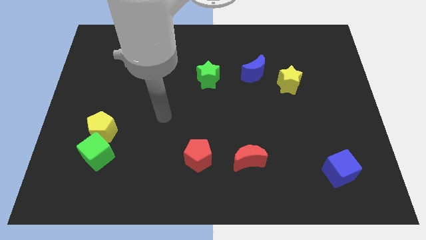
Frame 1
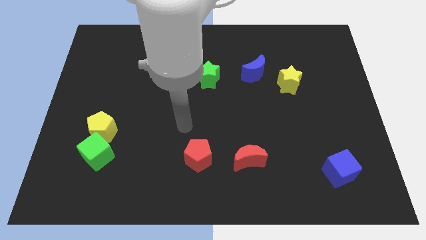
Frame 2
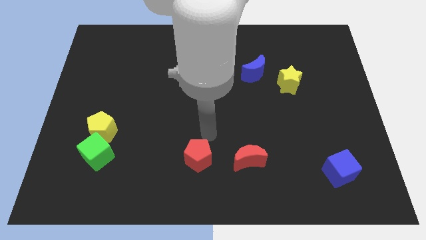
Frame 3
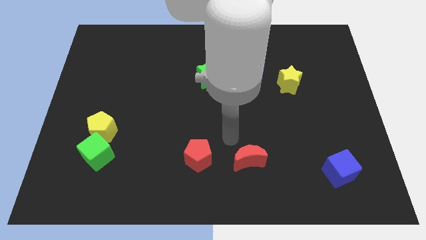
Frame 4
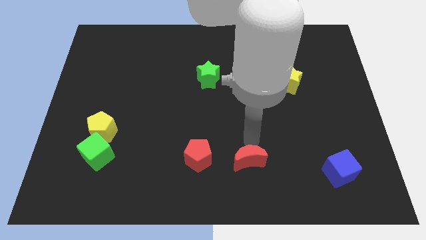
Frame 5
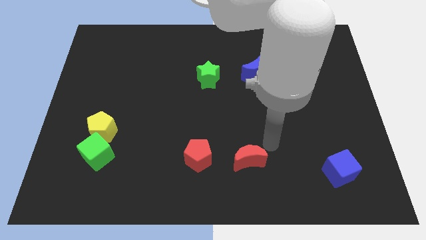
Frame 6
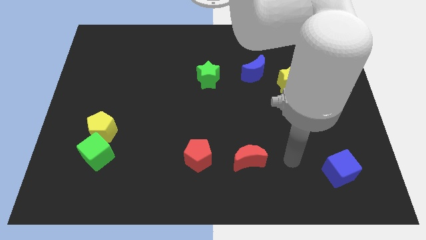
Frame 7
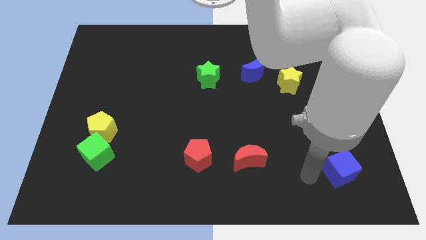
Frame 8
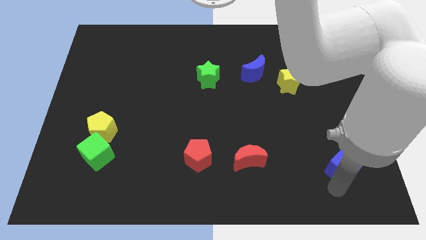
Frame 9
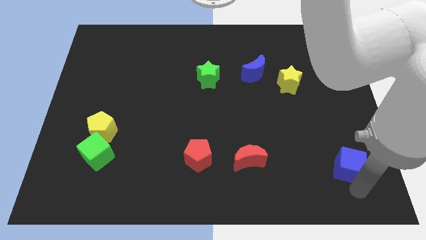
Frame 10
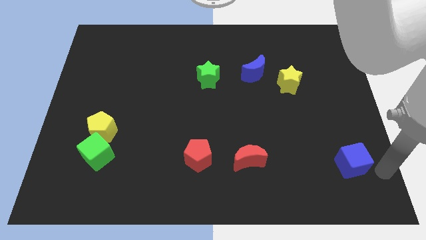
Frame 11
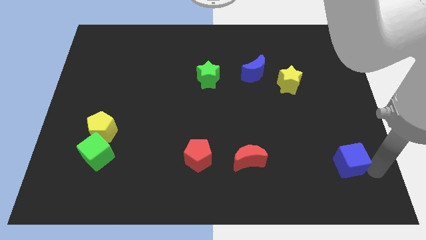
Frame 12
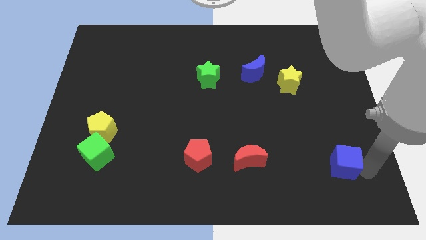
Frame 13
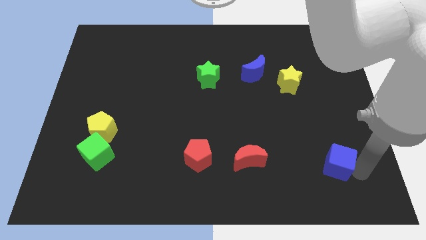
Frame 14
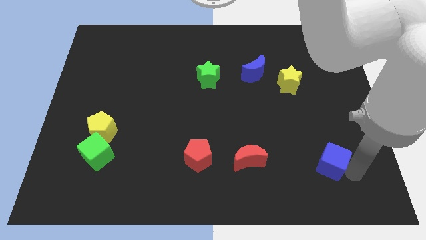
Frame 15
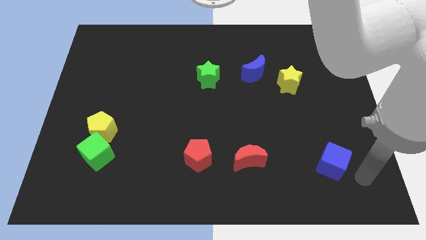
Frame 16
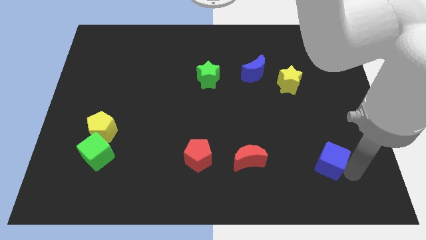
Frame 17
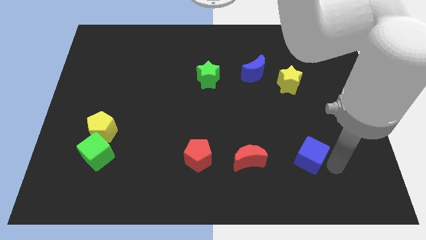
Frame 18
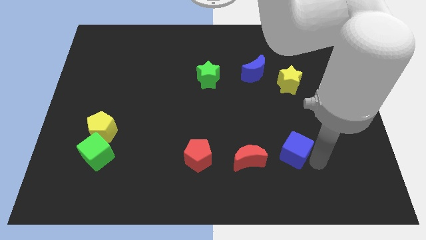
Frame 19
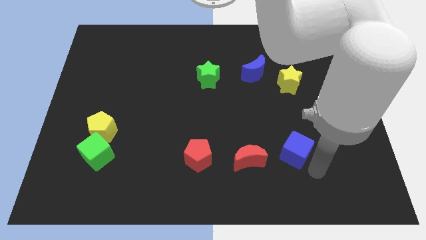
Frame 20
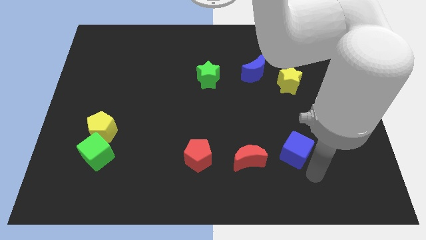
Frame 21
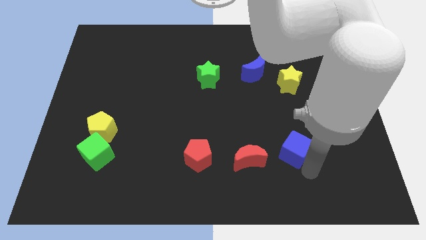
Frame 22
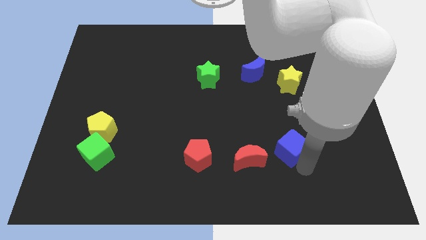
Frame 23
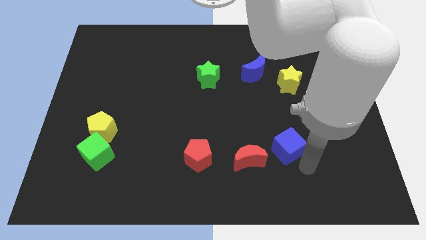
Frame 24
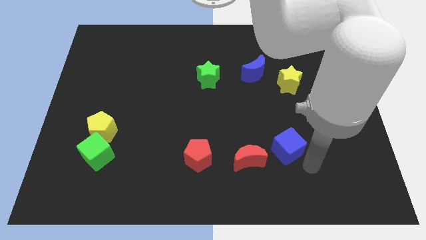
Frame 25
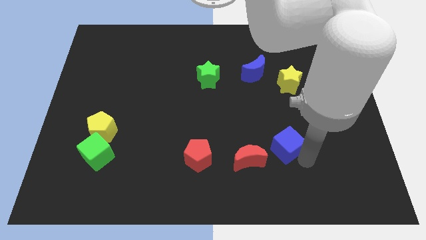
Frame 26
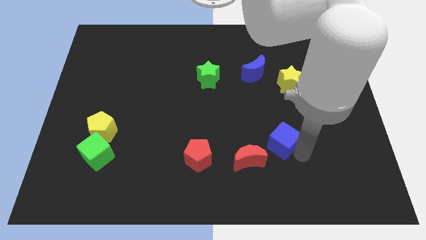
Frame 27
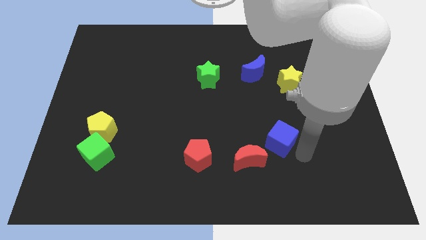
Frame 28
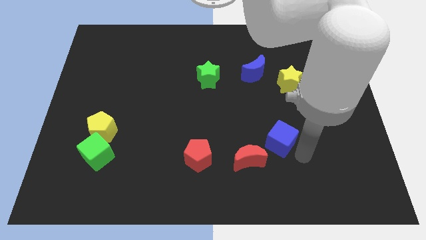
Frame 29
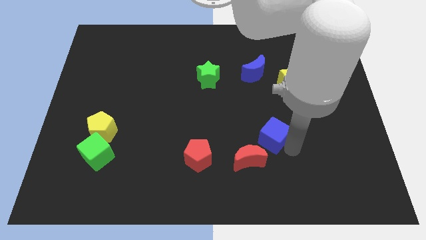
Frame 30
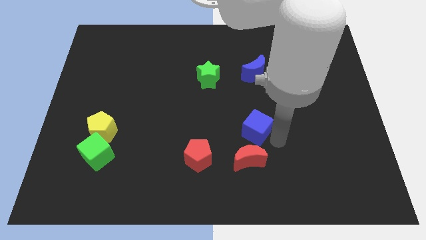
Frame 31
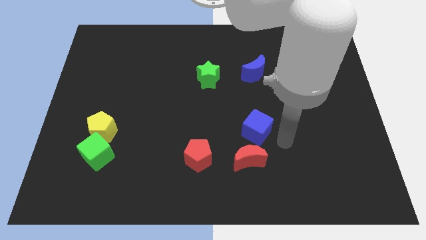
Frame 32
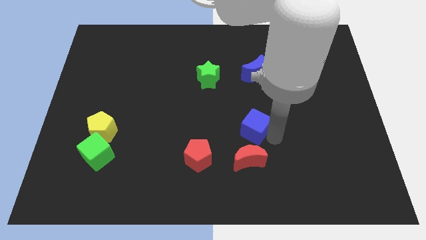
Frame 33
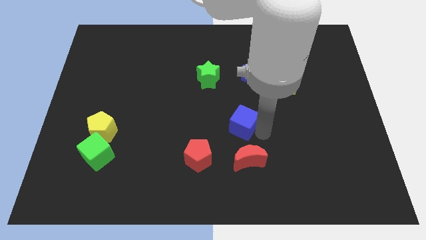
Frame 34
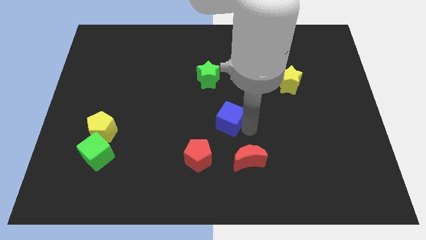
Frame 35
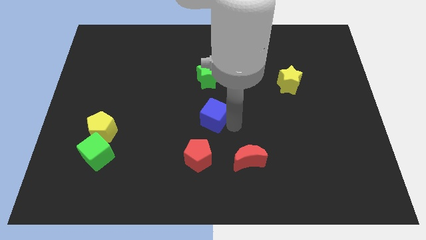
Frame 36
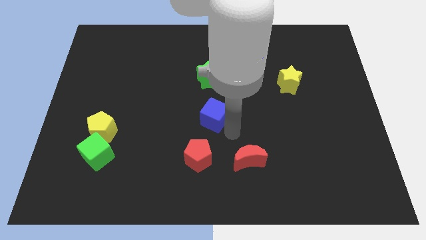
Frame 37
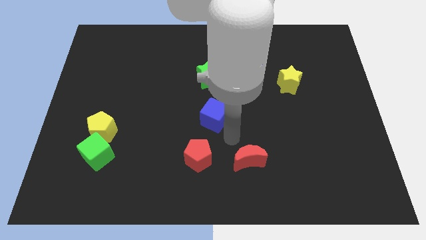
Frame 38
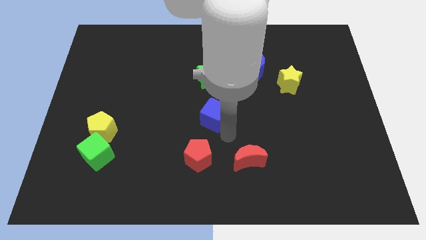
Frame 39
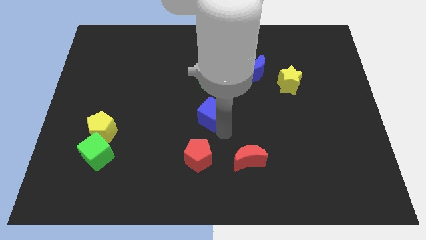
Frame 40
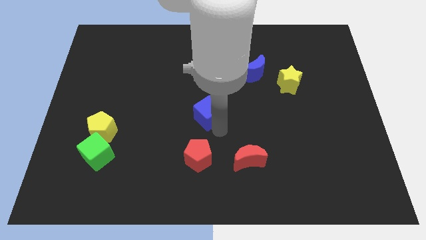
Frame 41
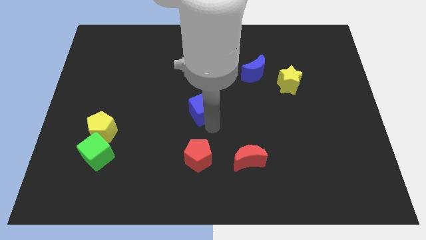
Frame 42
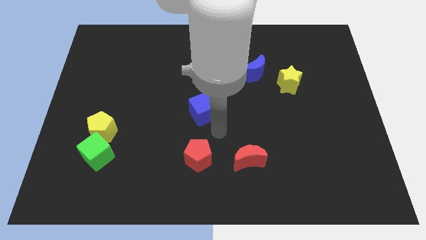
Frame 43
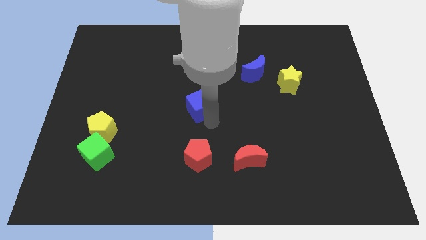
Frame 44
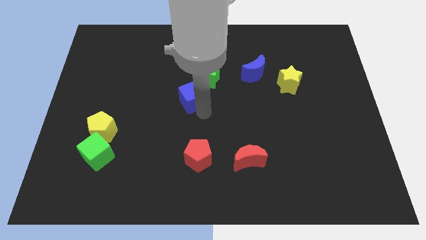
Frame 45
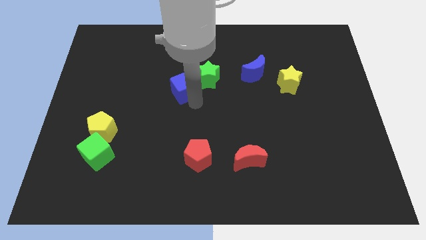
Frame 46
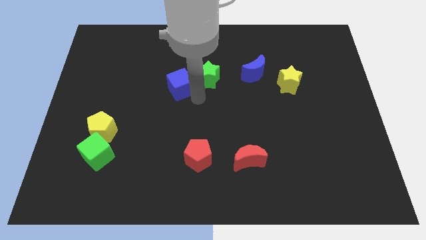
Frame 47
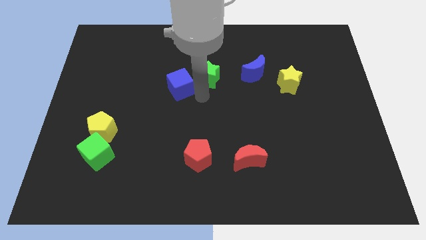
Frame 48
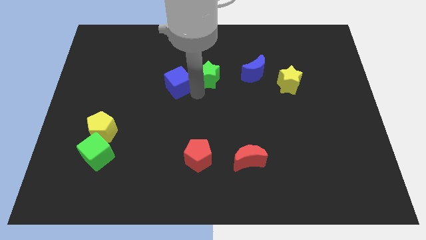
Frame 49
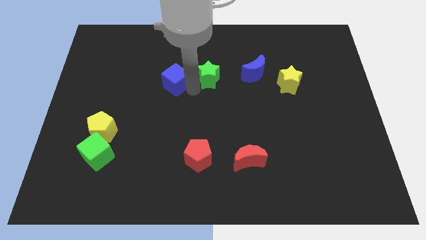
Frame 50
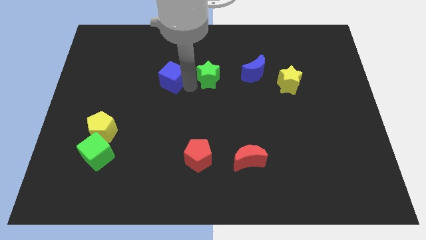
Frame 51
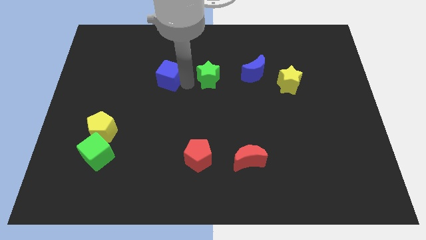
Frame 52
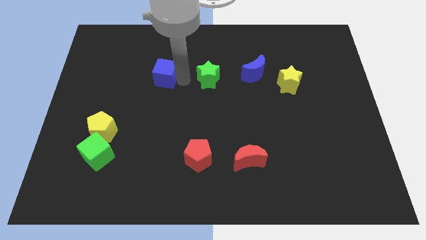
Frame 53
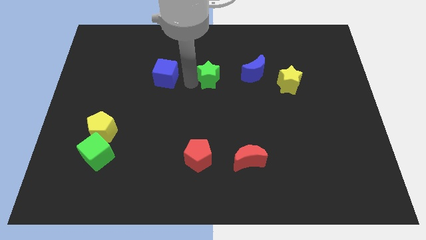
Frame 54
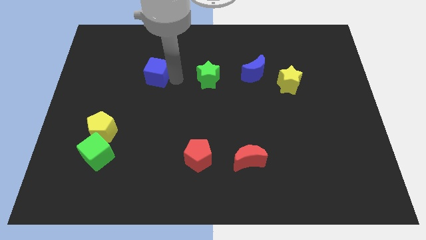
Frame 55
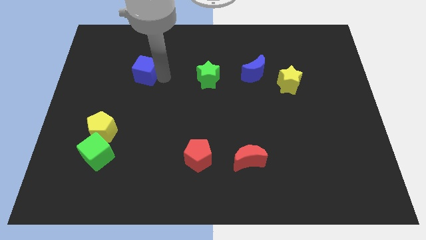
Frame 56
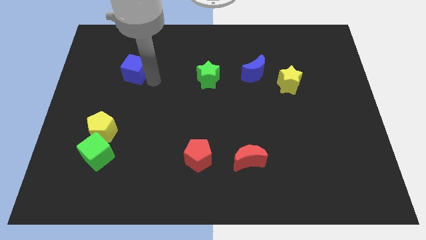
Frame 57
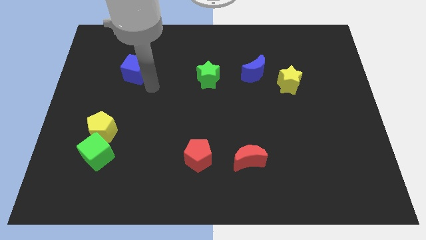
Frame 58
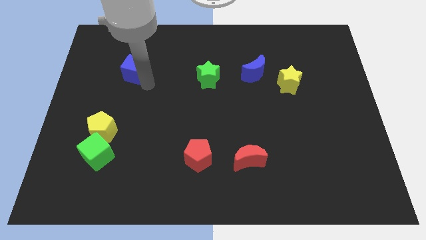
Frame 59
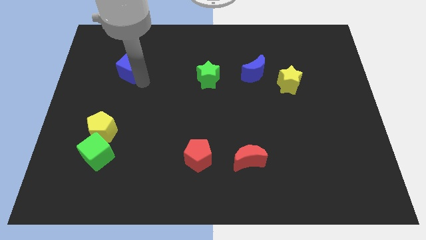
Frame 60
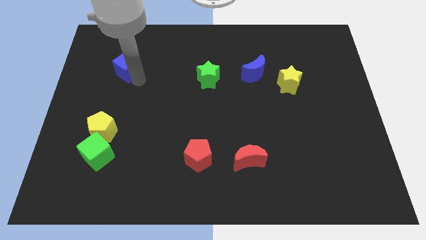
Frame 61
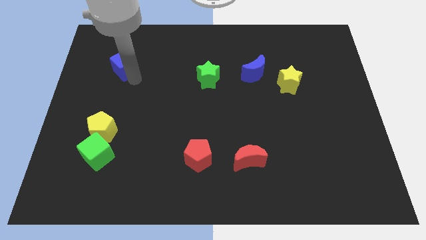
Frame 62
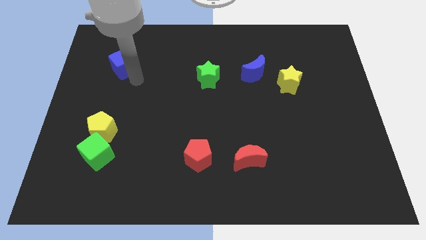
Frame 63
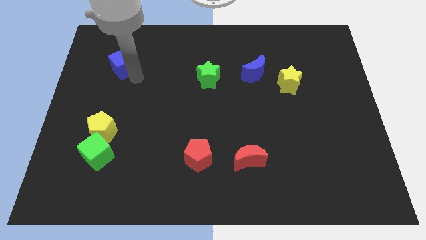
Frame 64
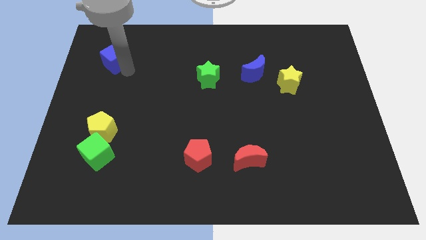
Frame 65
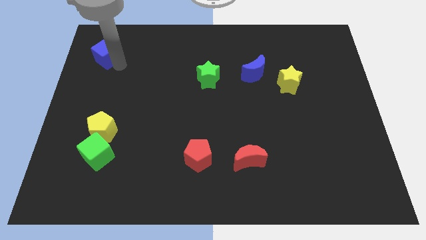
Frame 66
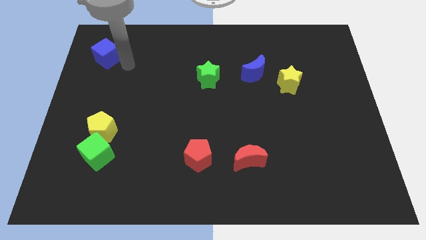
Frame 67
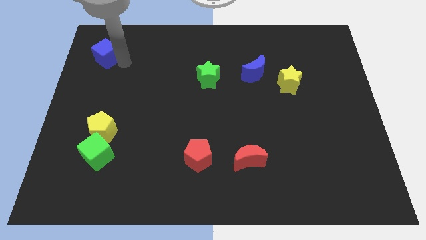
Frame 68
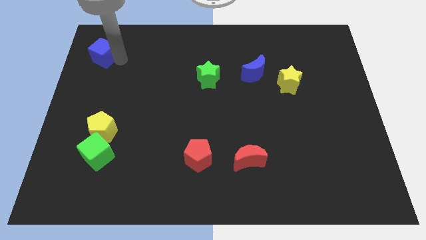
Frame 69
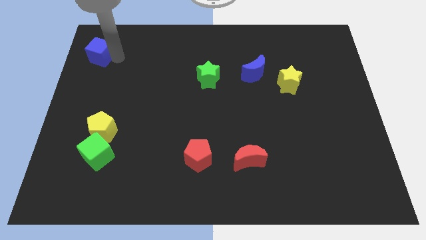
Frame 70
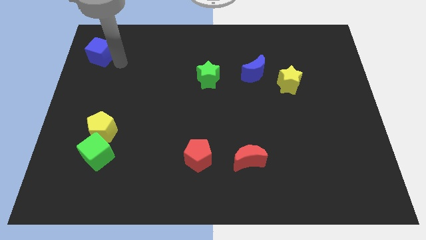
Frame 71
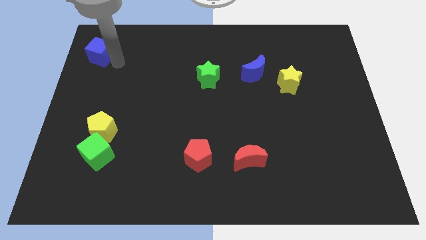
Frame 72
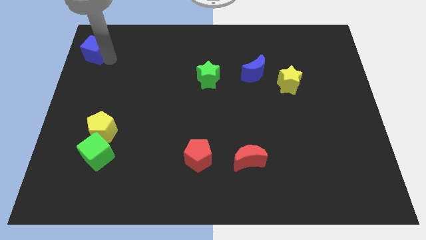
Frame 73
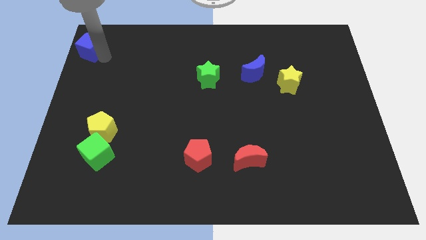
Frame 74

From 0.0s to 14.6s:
push the blue cube to the top left corner

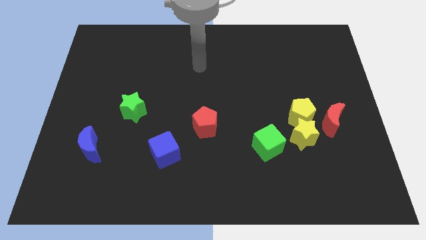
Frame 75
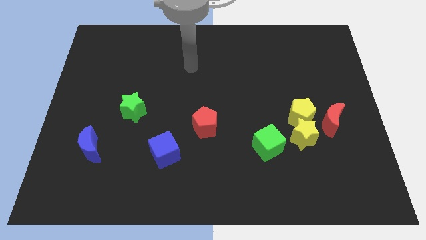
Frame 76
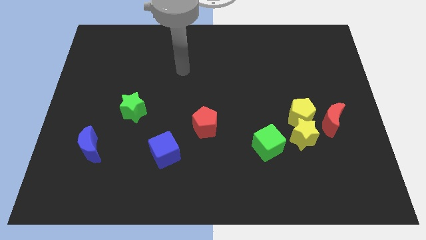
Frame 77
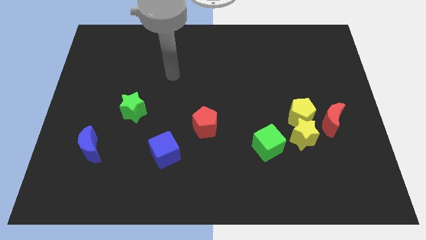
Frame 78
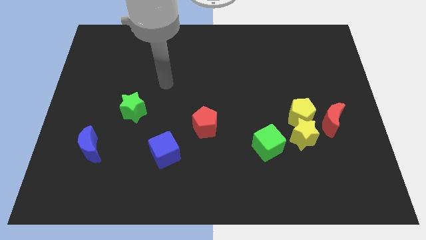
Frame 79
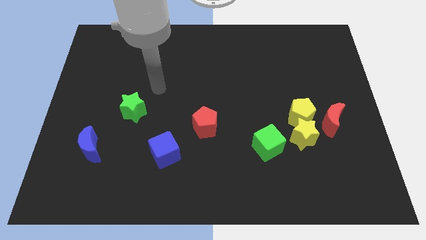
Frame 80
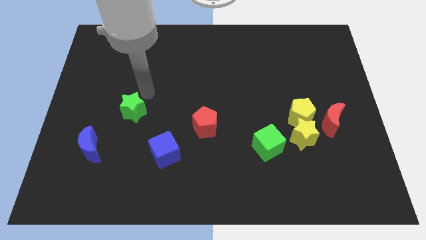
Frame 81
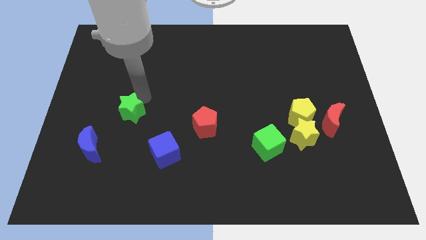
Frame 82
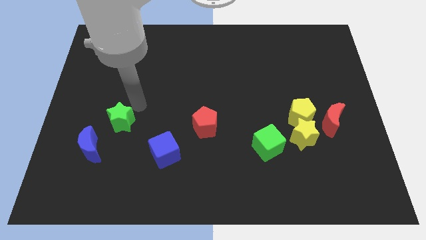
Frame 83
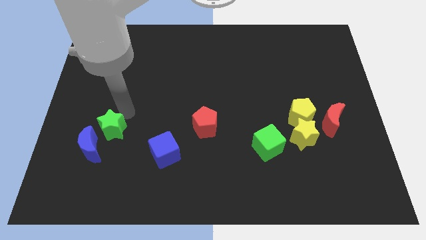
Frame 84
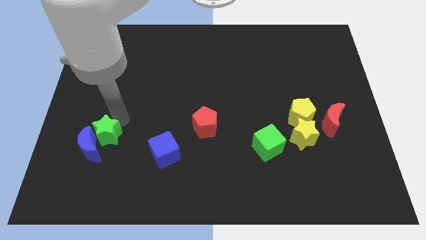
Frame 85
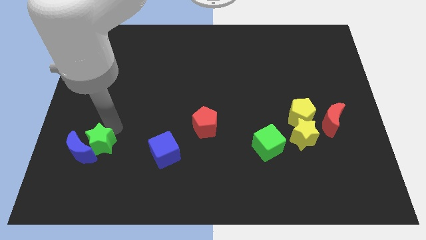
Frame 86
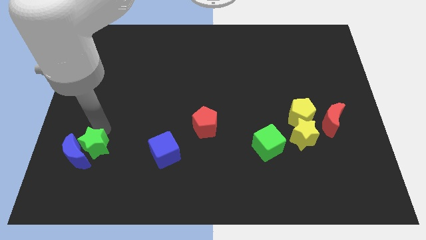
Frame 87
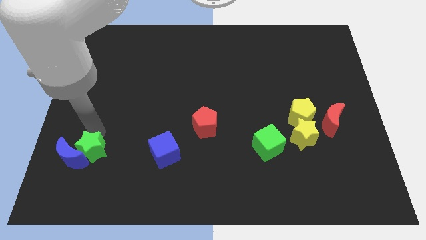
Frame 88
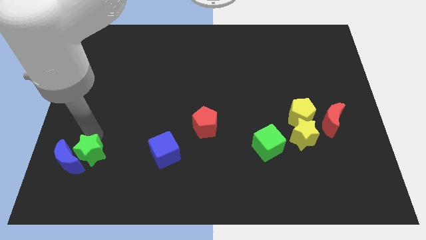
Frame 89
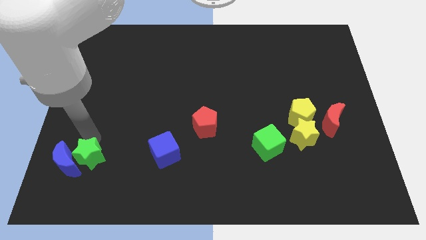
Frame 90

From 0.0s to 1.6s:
put the blue moon to the bottom left of the board
